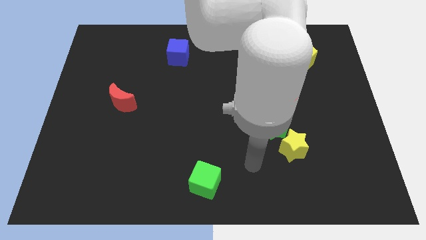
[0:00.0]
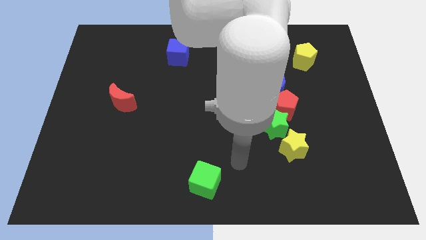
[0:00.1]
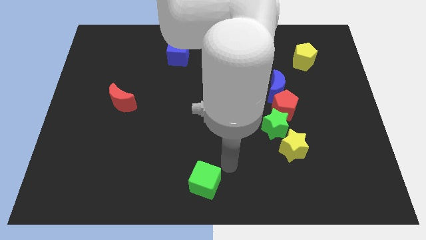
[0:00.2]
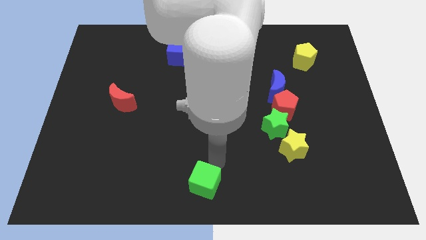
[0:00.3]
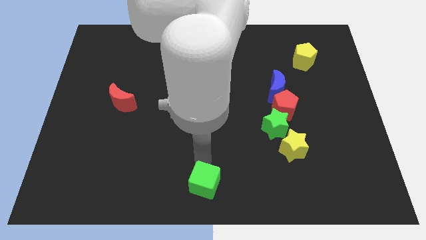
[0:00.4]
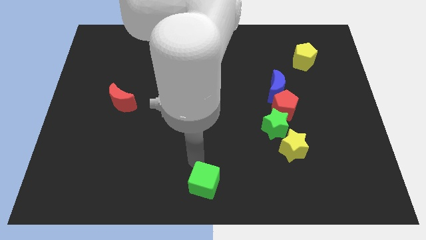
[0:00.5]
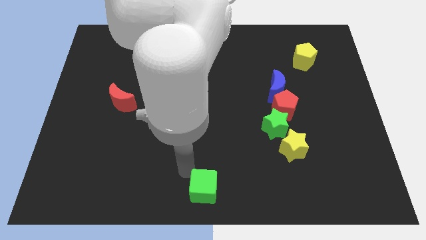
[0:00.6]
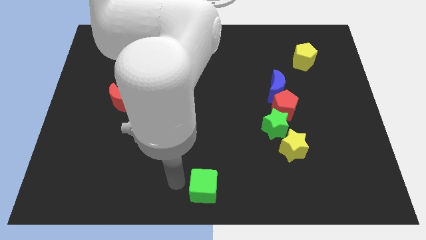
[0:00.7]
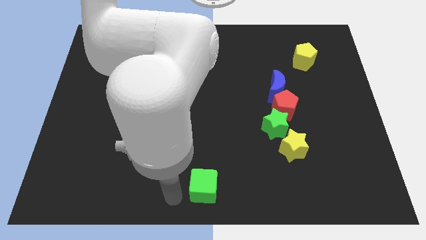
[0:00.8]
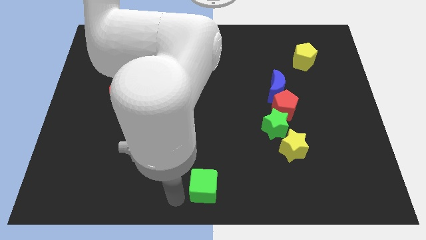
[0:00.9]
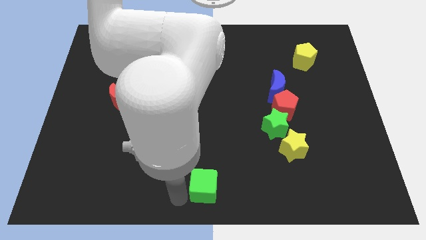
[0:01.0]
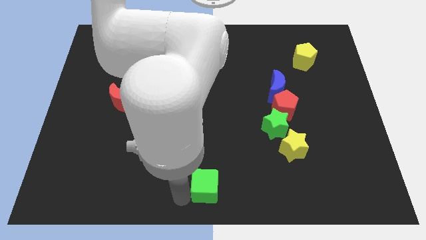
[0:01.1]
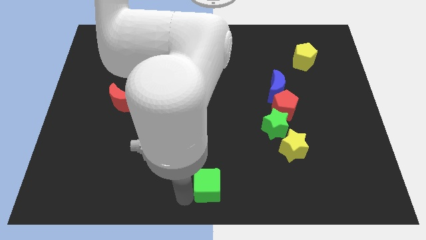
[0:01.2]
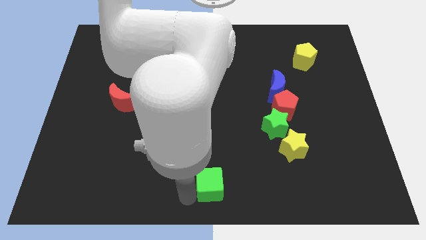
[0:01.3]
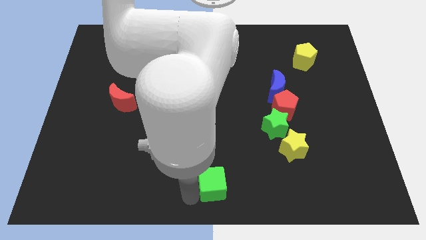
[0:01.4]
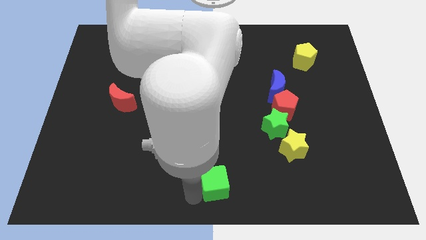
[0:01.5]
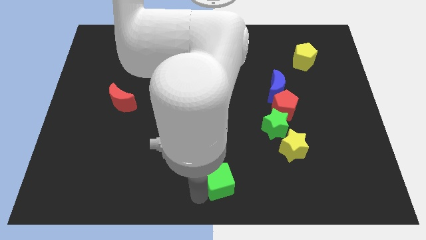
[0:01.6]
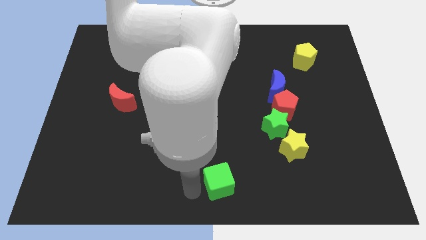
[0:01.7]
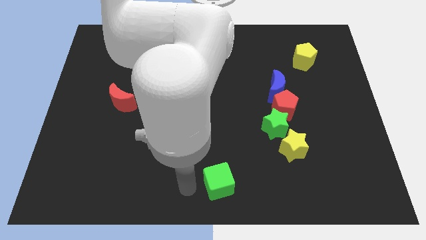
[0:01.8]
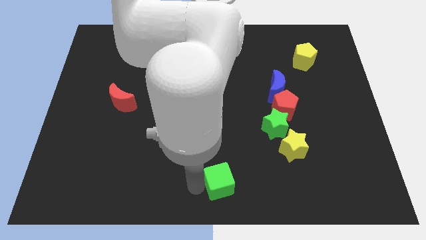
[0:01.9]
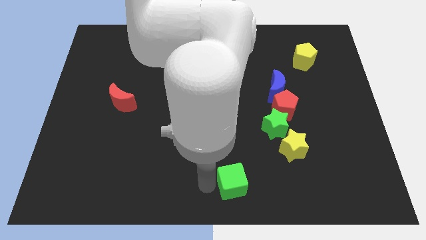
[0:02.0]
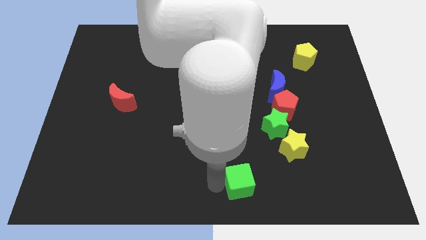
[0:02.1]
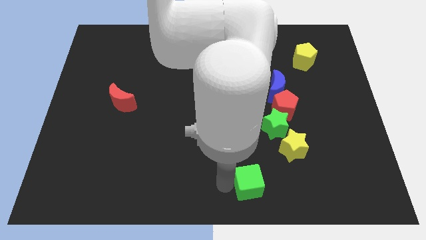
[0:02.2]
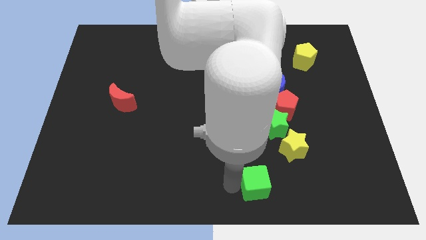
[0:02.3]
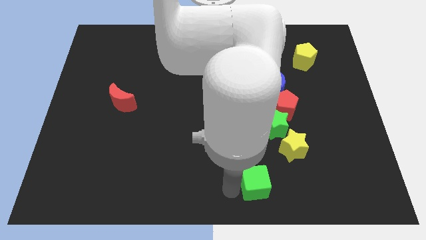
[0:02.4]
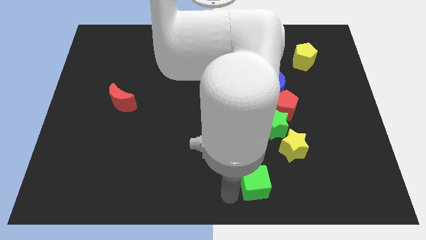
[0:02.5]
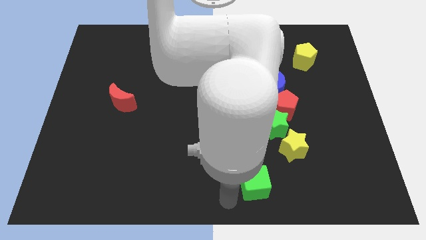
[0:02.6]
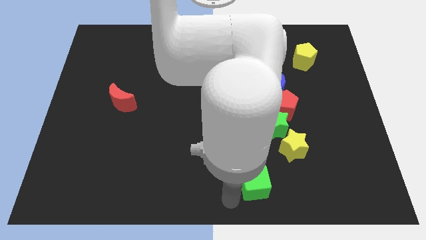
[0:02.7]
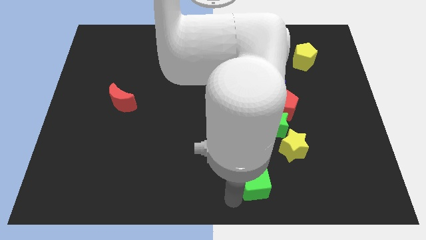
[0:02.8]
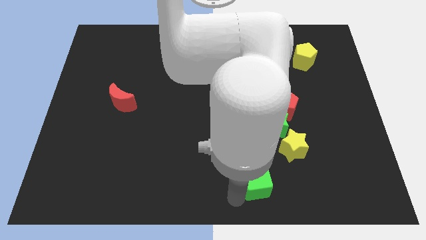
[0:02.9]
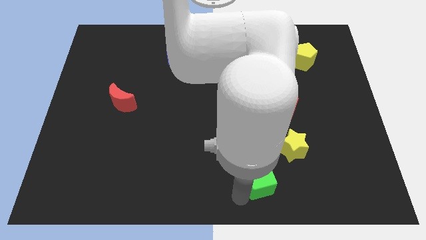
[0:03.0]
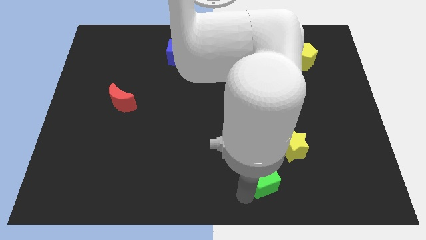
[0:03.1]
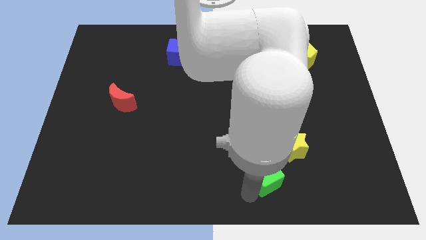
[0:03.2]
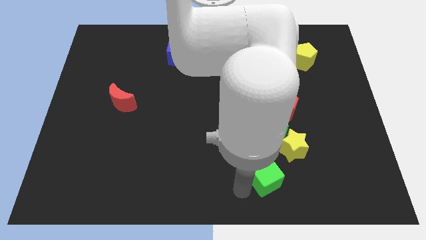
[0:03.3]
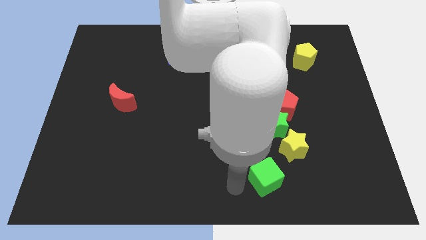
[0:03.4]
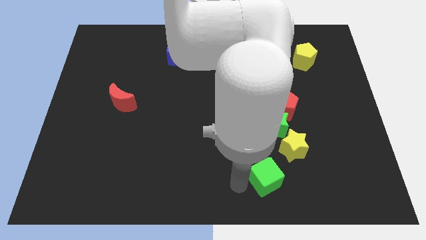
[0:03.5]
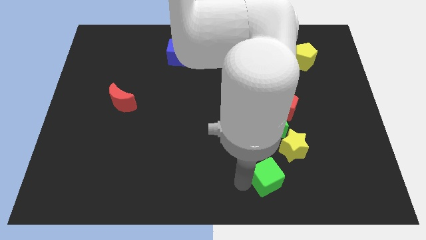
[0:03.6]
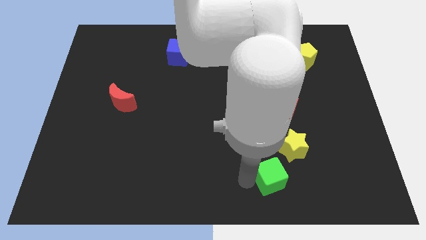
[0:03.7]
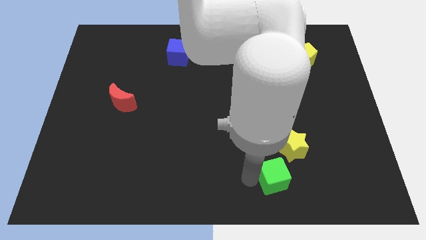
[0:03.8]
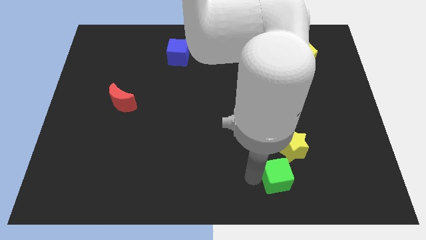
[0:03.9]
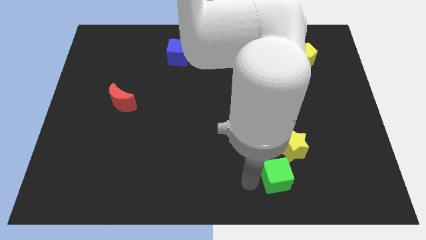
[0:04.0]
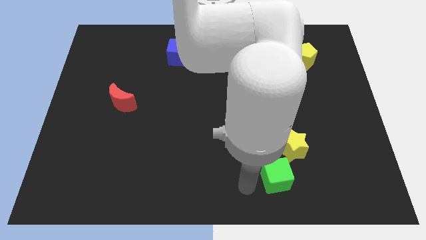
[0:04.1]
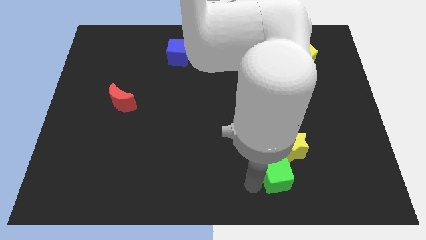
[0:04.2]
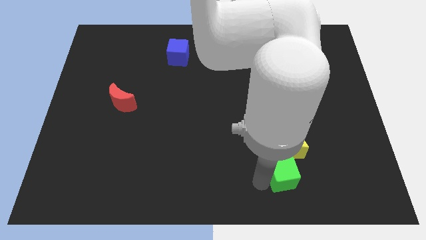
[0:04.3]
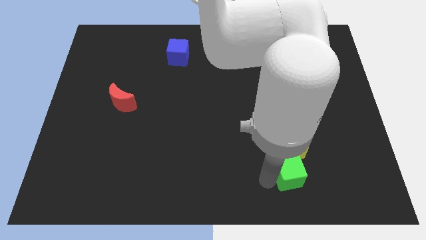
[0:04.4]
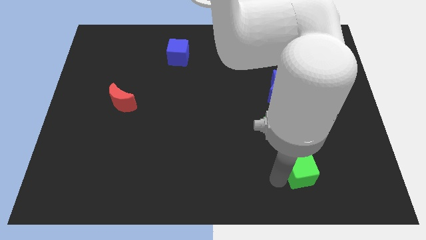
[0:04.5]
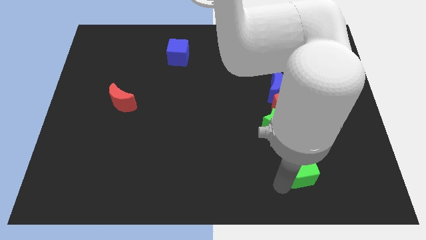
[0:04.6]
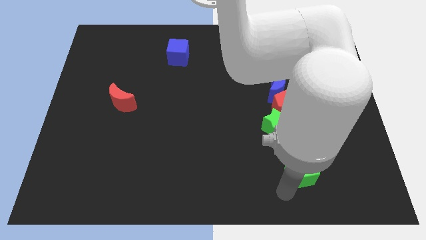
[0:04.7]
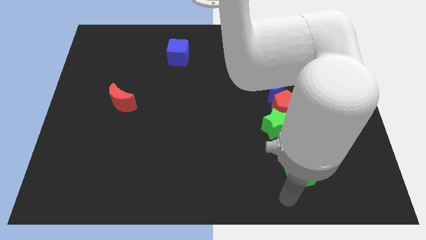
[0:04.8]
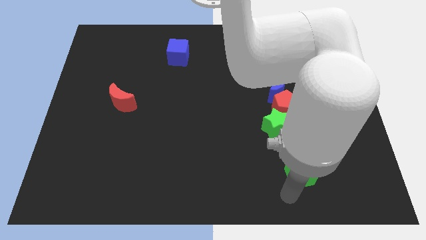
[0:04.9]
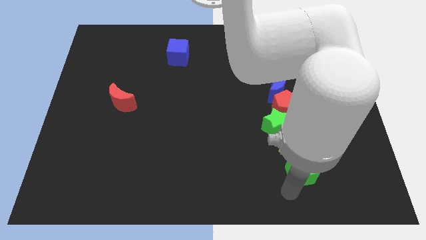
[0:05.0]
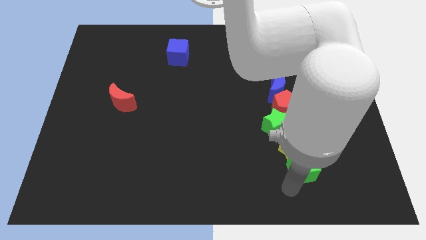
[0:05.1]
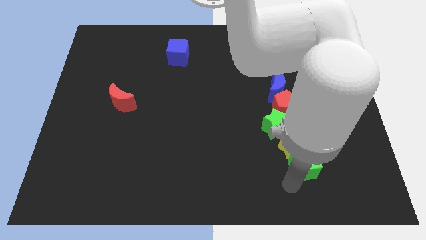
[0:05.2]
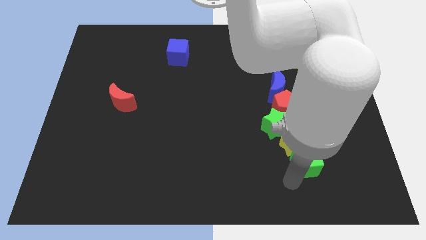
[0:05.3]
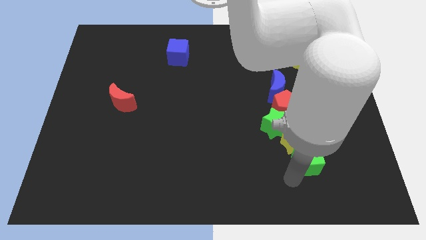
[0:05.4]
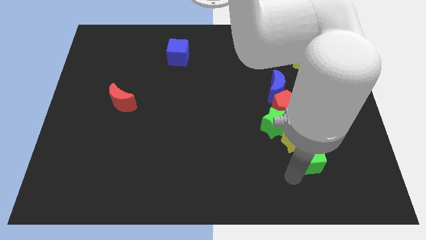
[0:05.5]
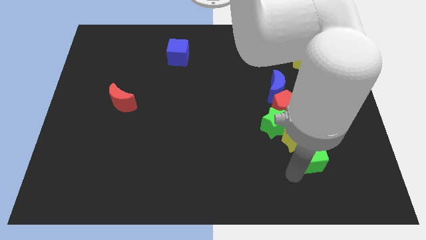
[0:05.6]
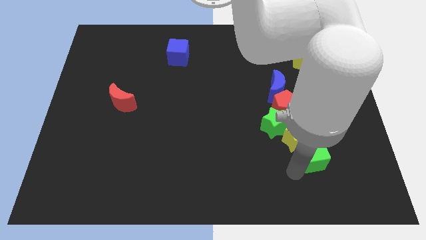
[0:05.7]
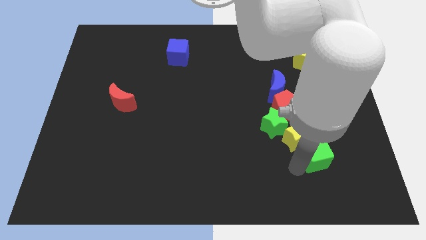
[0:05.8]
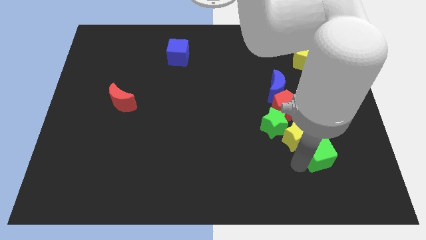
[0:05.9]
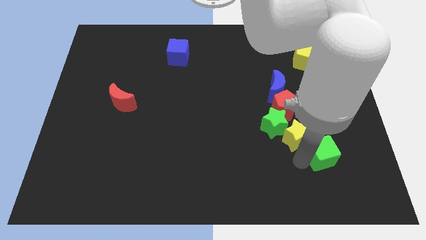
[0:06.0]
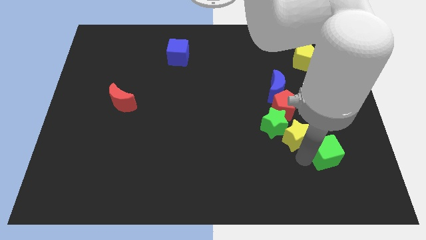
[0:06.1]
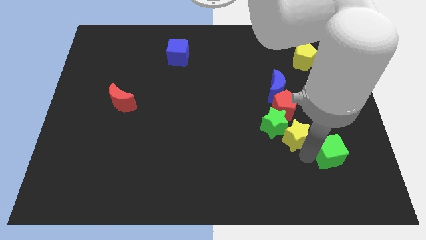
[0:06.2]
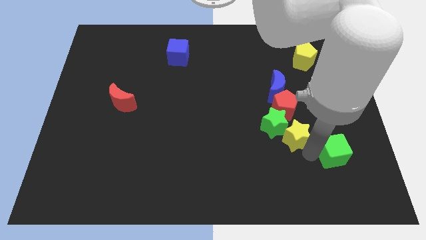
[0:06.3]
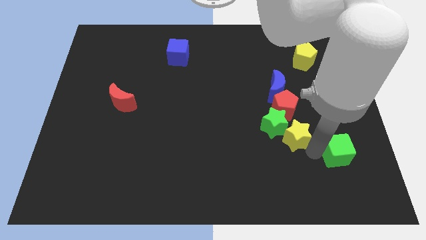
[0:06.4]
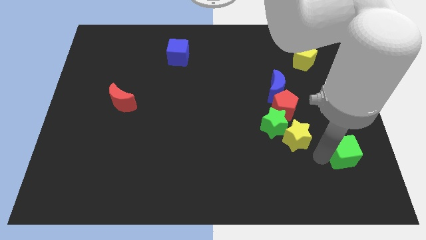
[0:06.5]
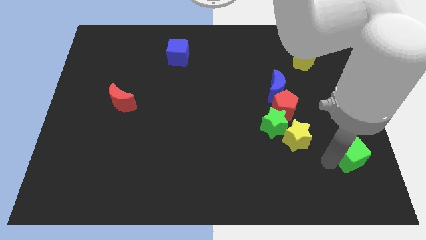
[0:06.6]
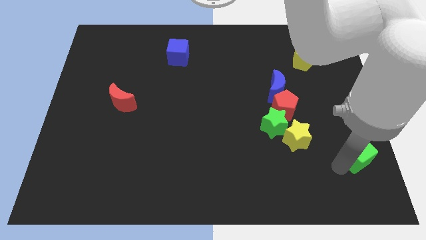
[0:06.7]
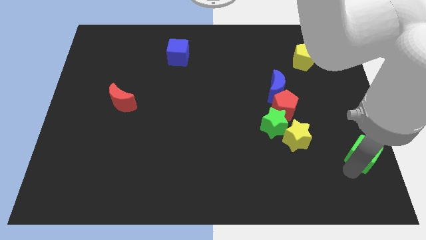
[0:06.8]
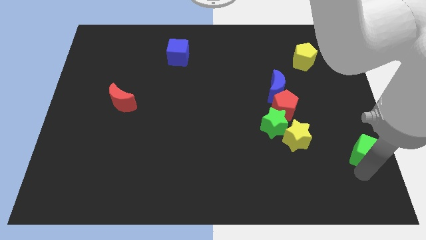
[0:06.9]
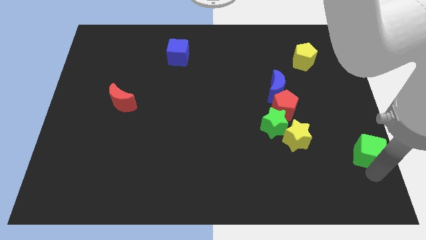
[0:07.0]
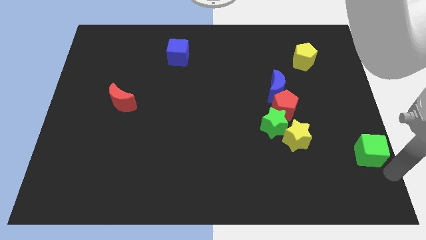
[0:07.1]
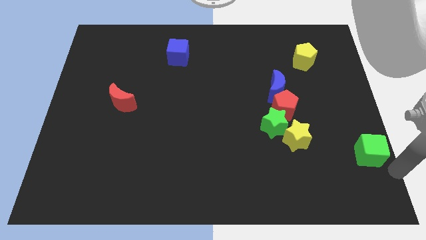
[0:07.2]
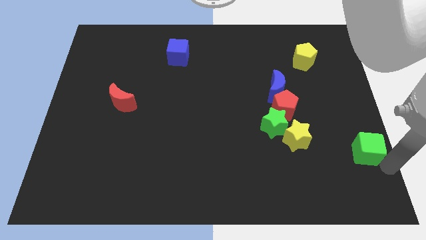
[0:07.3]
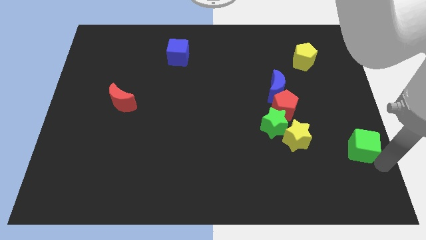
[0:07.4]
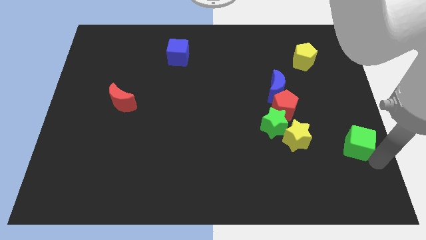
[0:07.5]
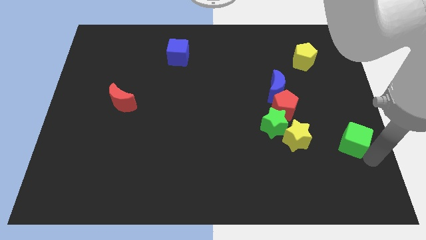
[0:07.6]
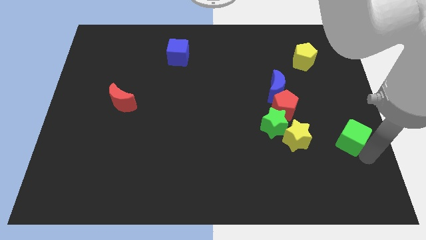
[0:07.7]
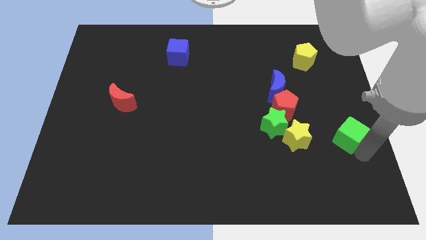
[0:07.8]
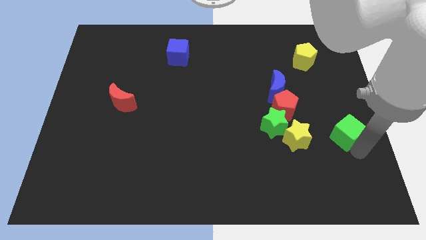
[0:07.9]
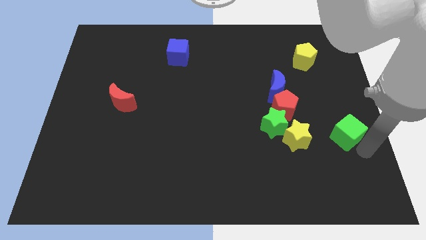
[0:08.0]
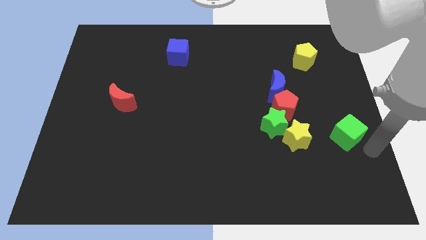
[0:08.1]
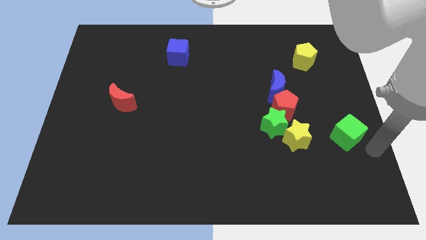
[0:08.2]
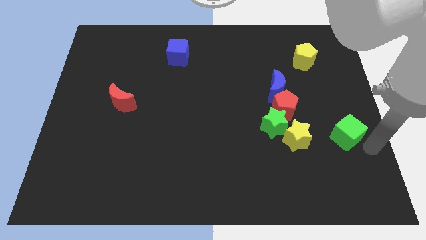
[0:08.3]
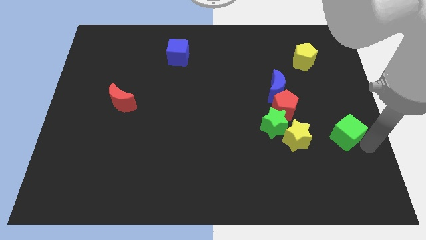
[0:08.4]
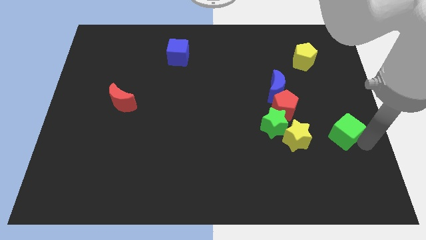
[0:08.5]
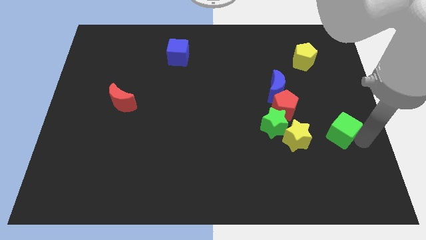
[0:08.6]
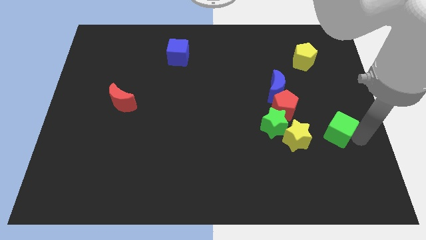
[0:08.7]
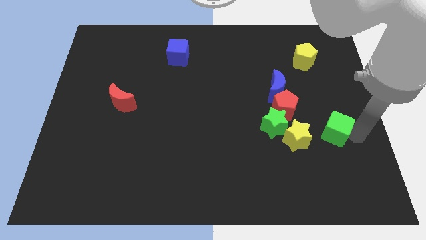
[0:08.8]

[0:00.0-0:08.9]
push the green cube to the top right side of the yellow star
